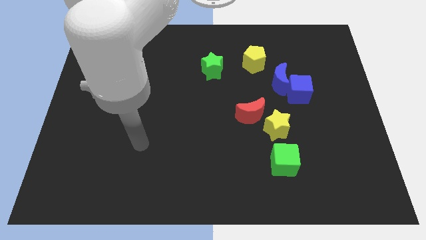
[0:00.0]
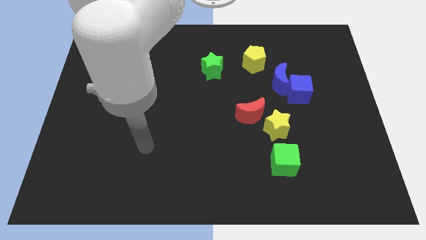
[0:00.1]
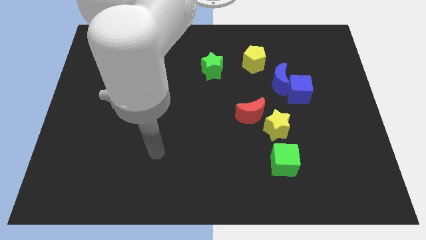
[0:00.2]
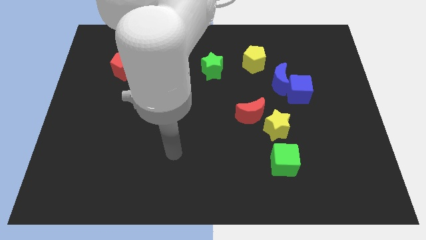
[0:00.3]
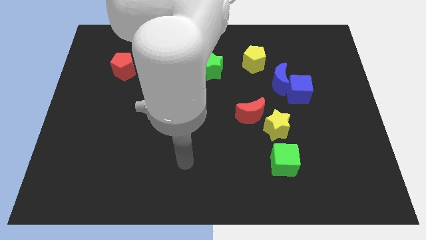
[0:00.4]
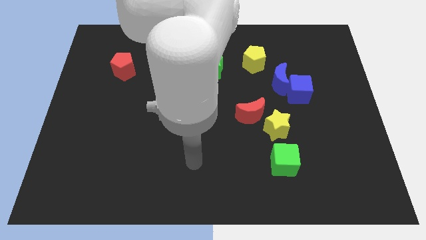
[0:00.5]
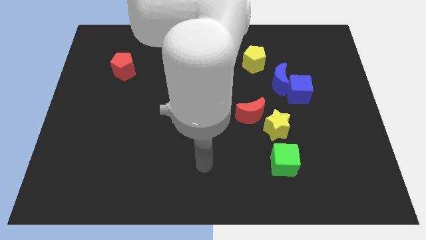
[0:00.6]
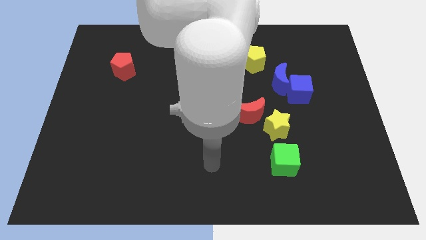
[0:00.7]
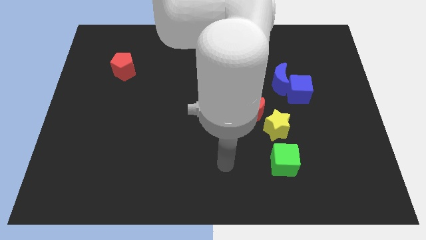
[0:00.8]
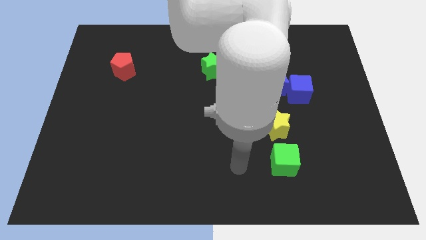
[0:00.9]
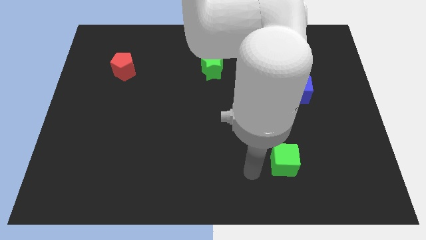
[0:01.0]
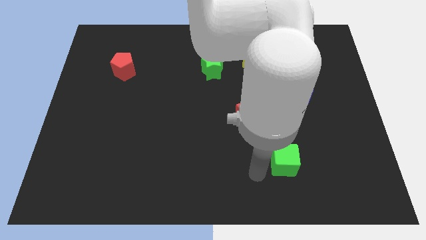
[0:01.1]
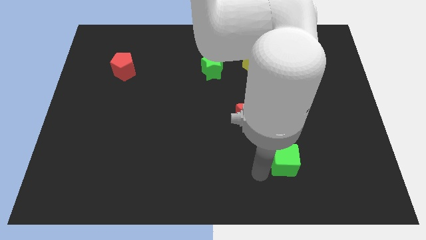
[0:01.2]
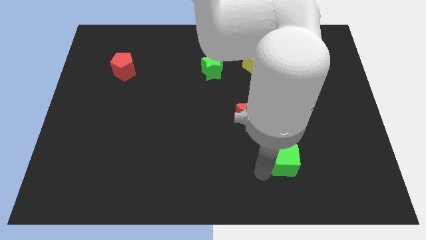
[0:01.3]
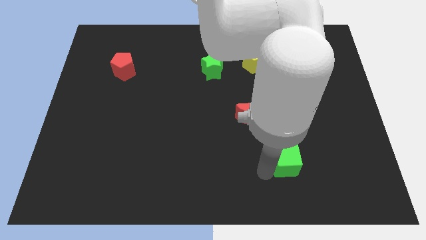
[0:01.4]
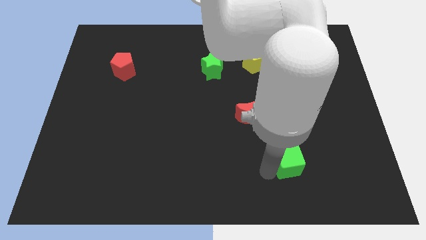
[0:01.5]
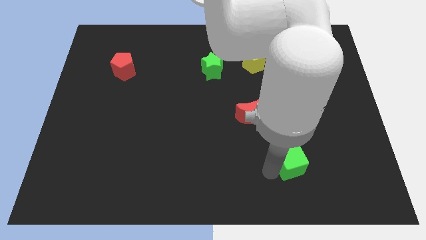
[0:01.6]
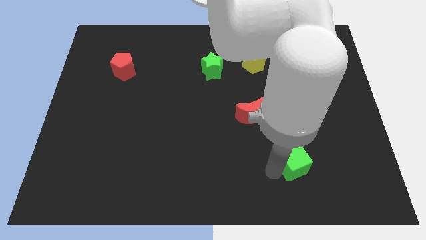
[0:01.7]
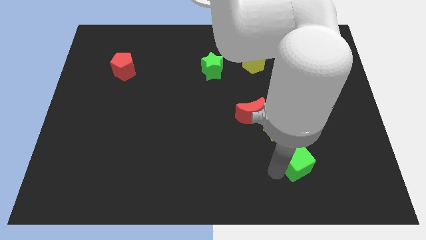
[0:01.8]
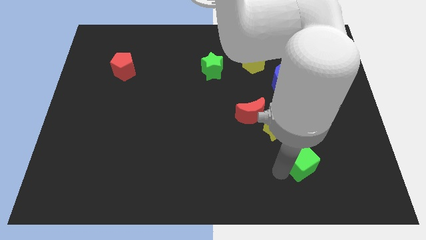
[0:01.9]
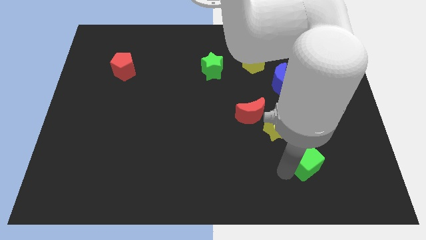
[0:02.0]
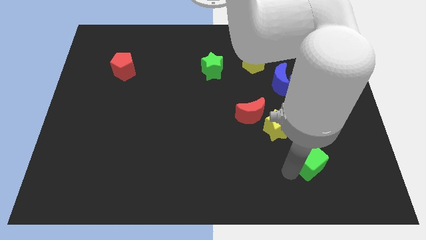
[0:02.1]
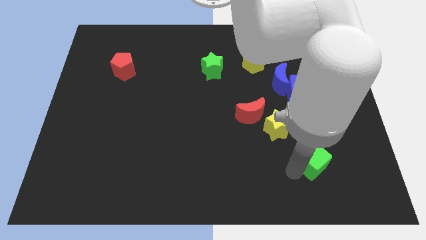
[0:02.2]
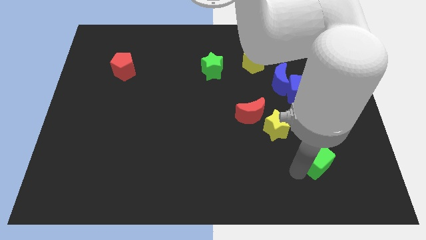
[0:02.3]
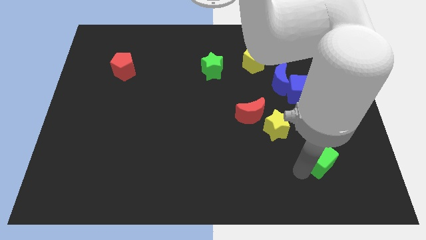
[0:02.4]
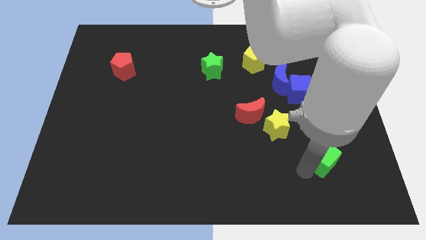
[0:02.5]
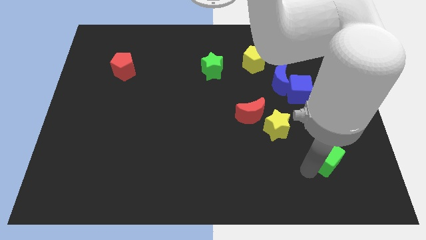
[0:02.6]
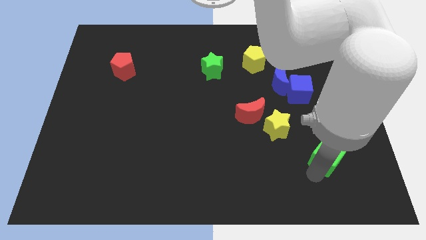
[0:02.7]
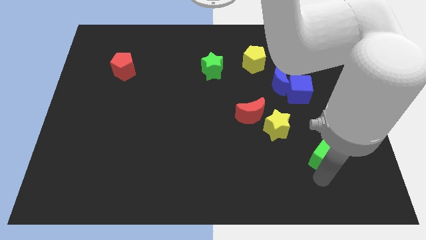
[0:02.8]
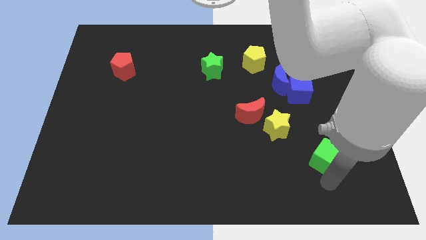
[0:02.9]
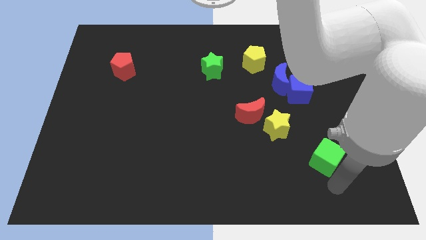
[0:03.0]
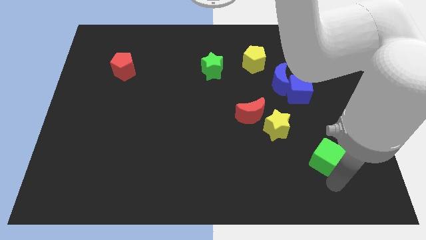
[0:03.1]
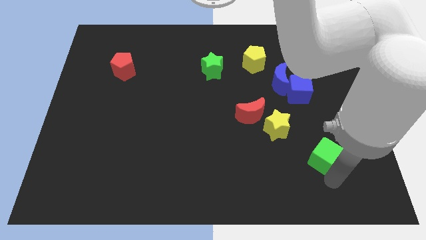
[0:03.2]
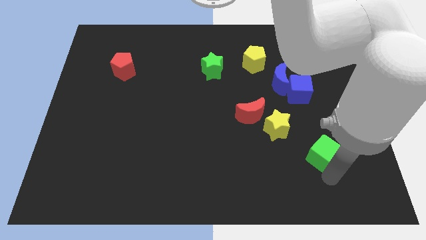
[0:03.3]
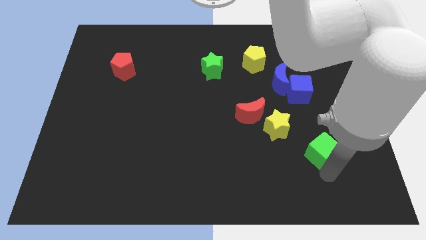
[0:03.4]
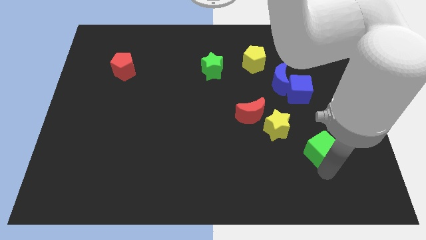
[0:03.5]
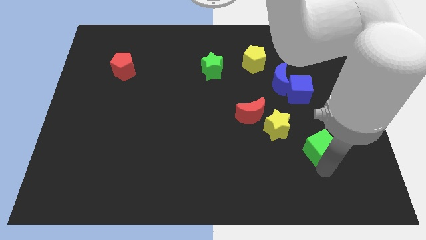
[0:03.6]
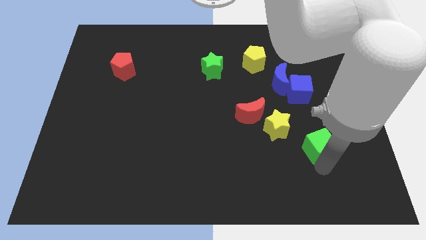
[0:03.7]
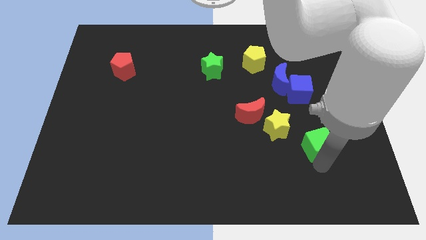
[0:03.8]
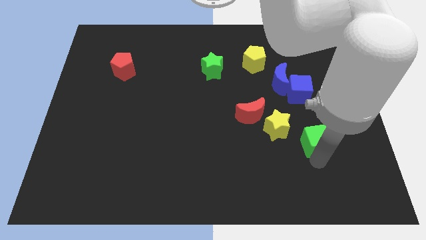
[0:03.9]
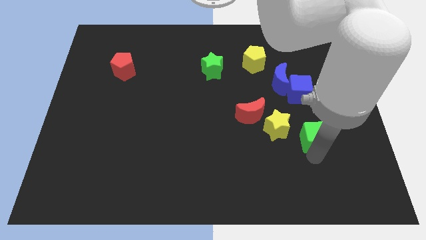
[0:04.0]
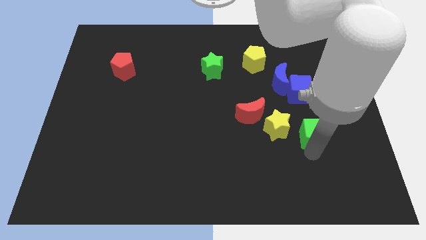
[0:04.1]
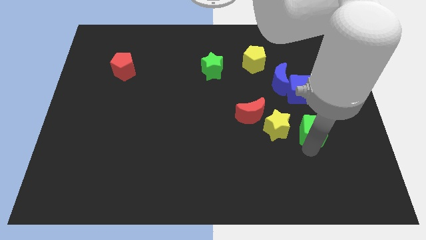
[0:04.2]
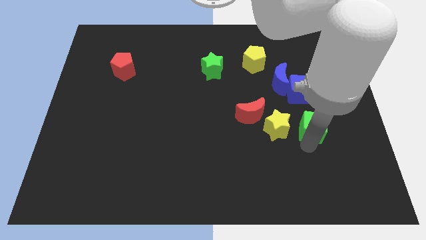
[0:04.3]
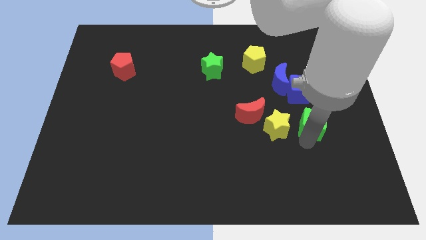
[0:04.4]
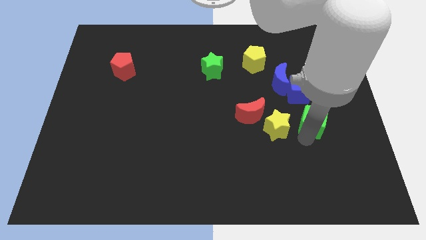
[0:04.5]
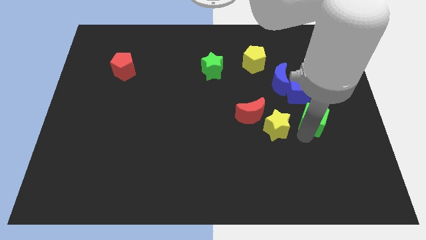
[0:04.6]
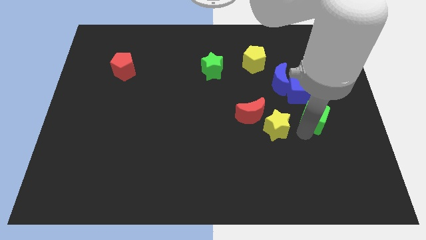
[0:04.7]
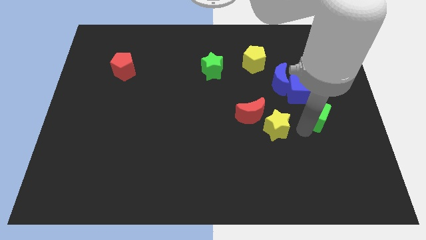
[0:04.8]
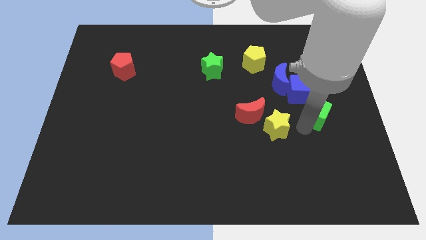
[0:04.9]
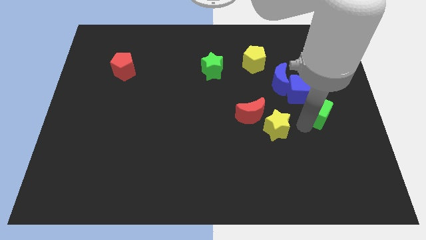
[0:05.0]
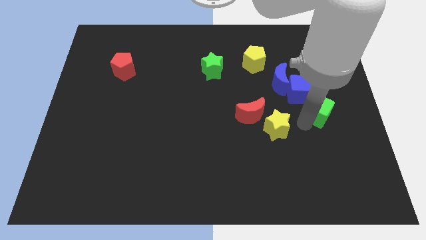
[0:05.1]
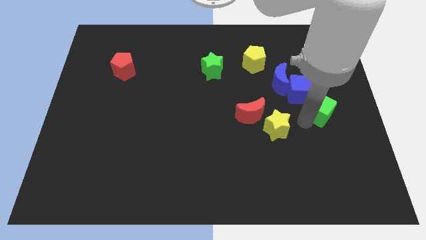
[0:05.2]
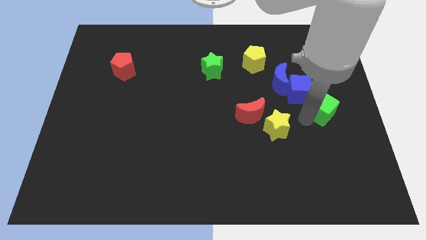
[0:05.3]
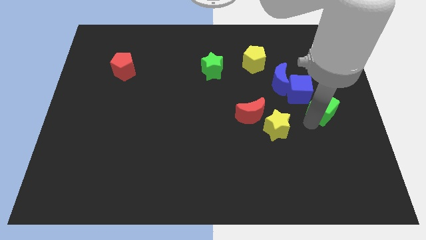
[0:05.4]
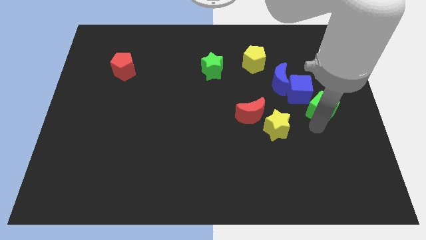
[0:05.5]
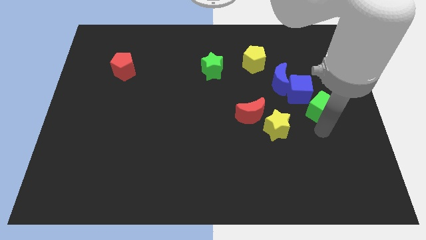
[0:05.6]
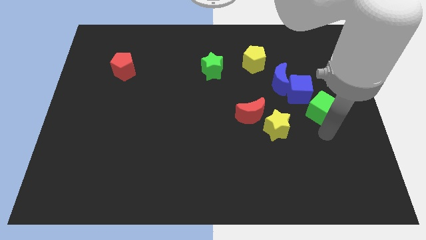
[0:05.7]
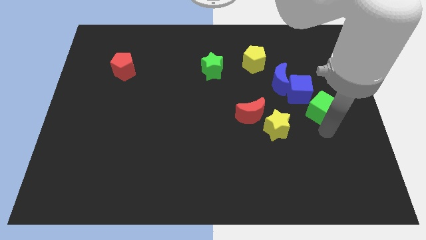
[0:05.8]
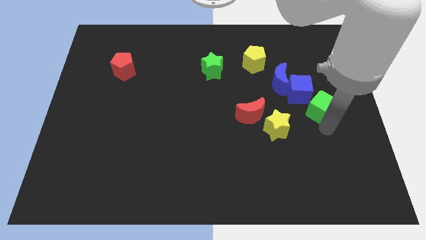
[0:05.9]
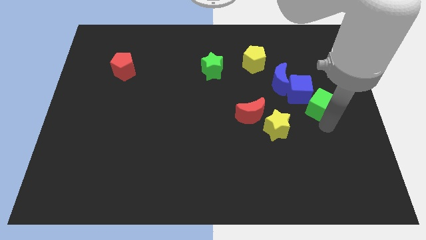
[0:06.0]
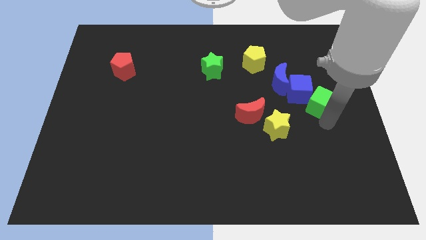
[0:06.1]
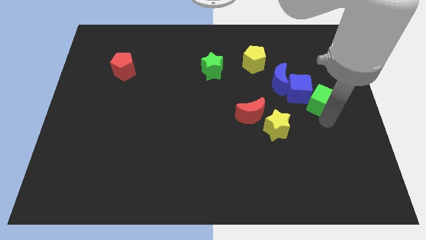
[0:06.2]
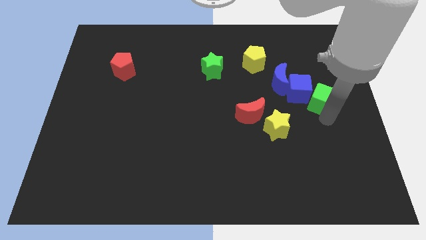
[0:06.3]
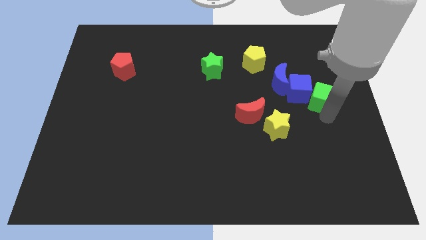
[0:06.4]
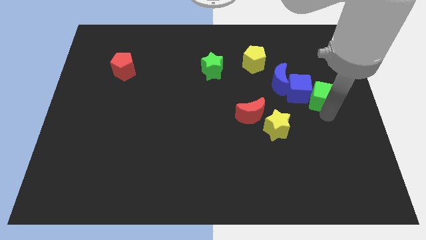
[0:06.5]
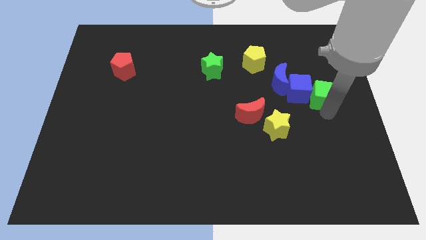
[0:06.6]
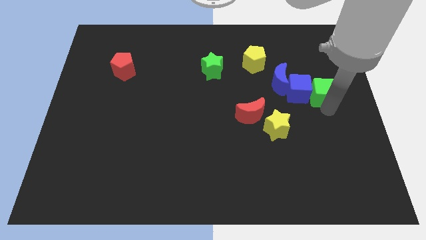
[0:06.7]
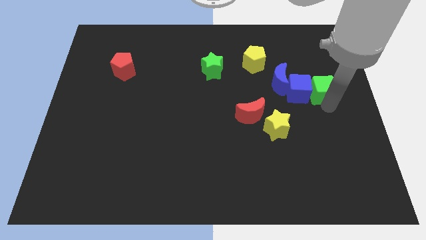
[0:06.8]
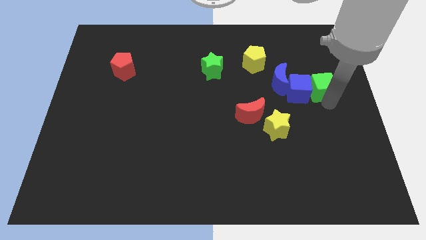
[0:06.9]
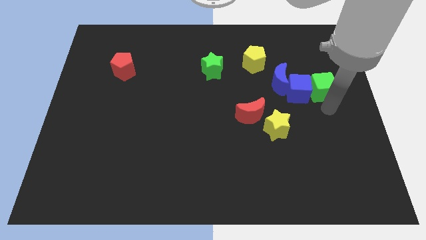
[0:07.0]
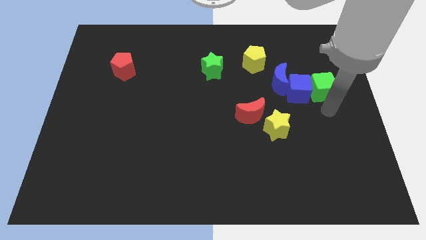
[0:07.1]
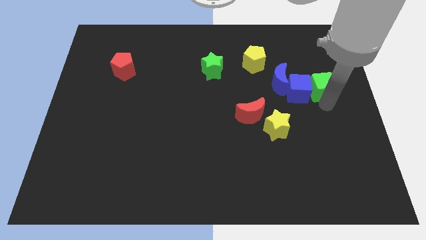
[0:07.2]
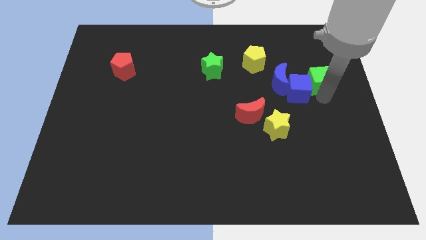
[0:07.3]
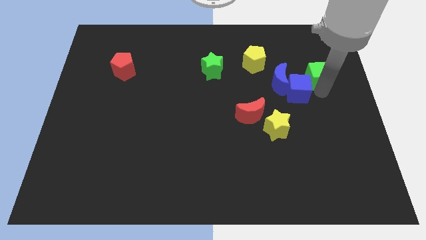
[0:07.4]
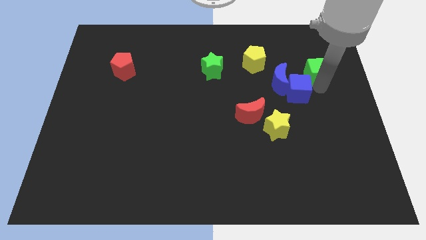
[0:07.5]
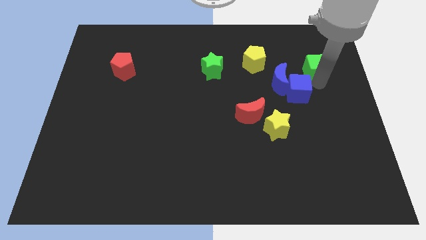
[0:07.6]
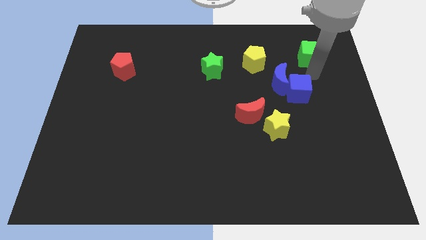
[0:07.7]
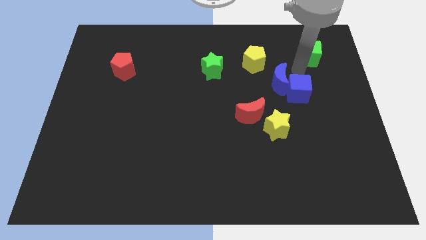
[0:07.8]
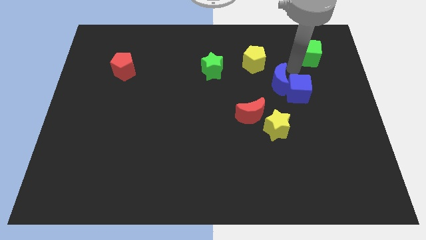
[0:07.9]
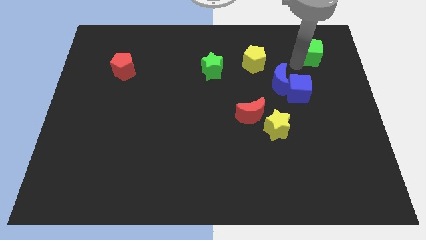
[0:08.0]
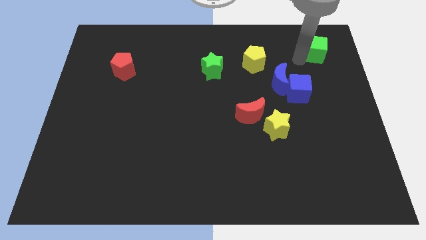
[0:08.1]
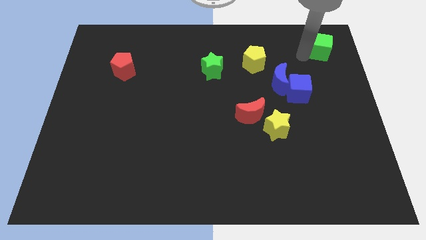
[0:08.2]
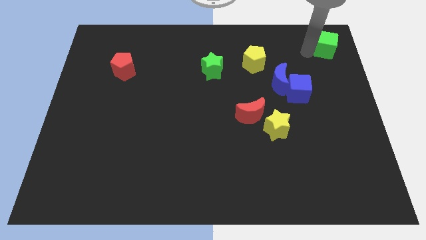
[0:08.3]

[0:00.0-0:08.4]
put the green cube to the top right of the board
